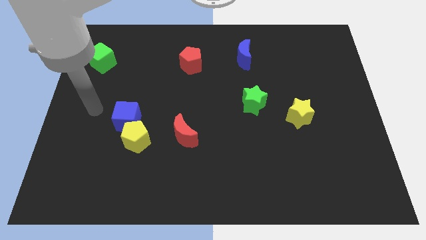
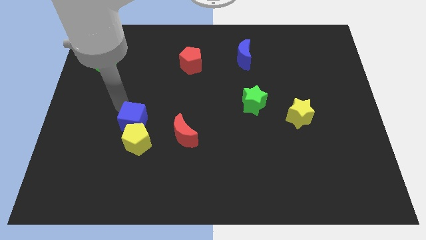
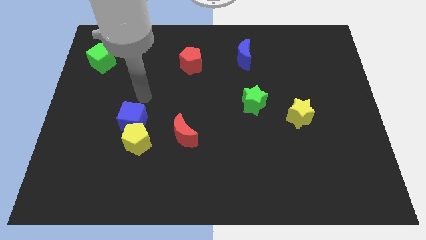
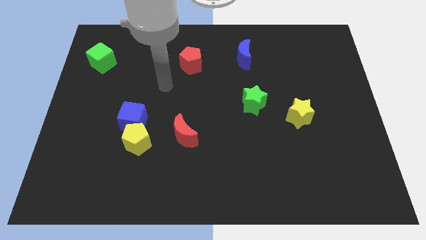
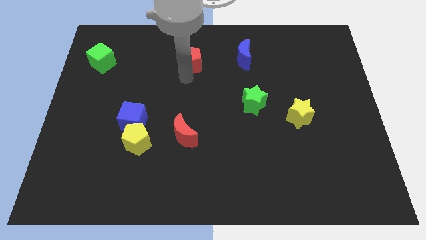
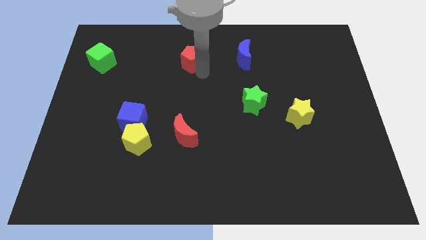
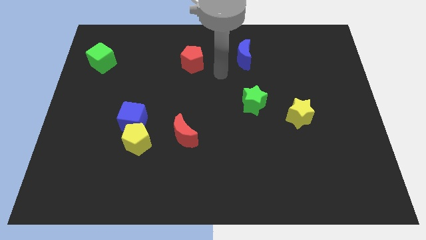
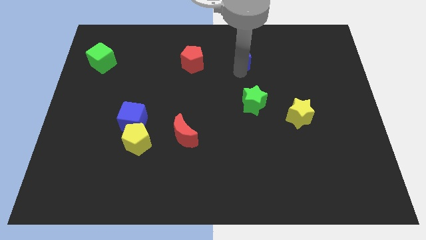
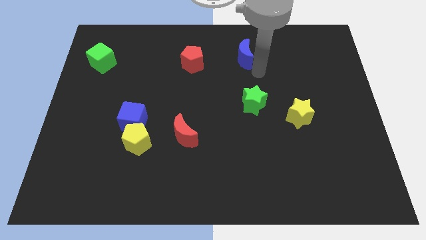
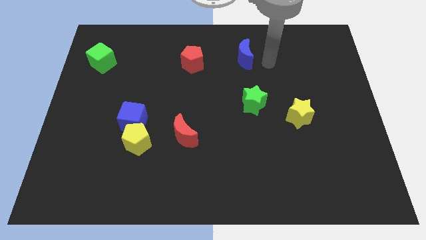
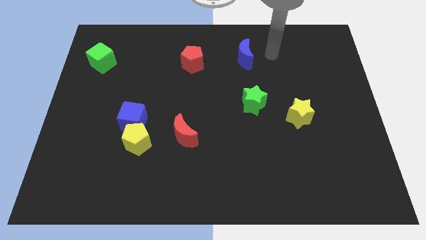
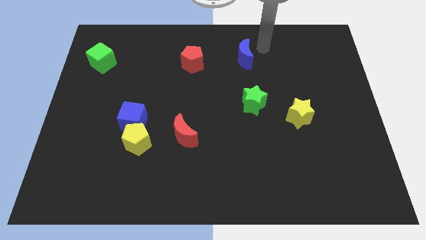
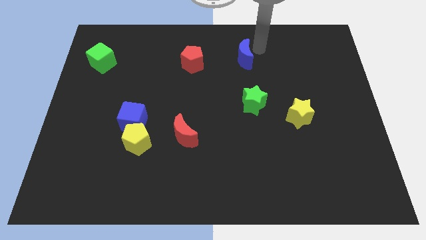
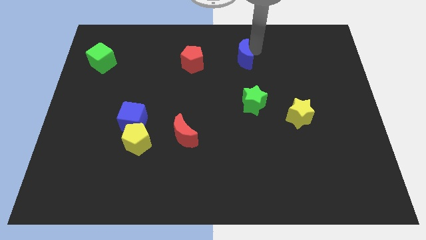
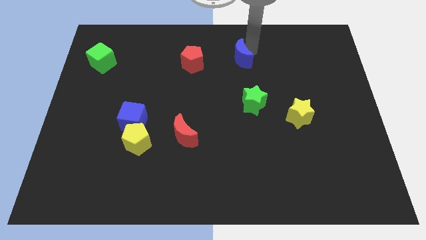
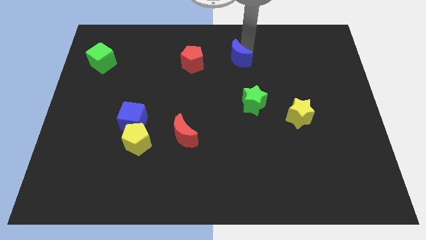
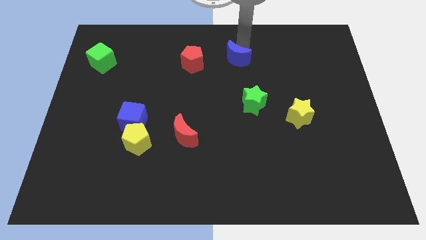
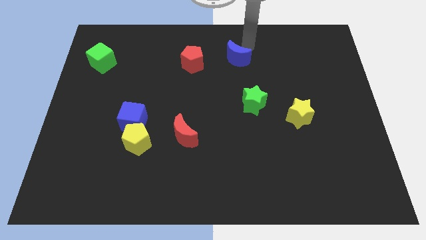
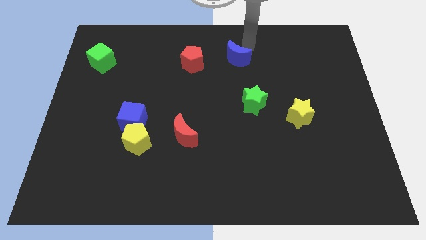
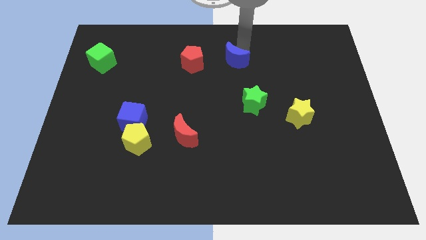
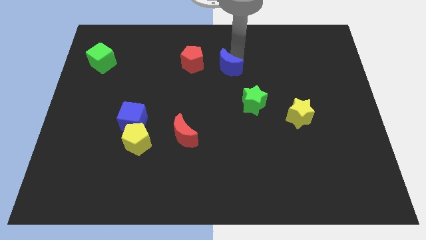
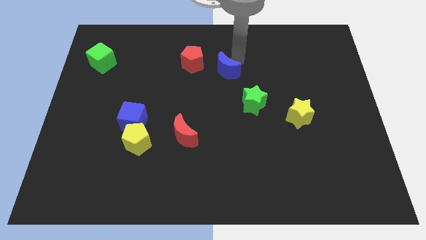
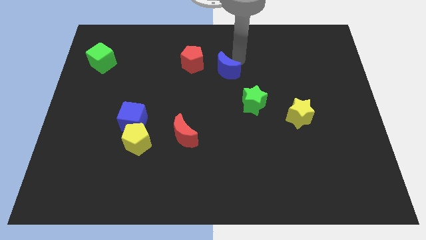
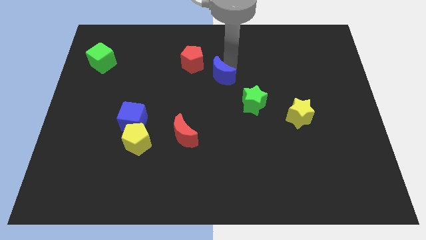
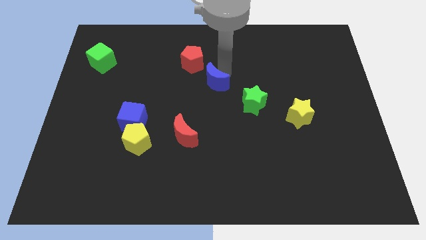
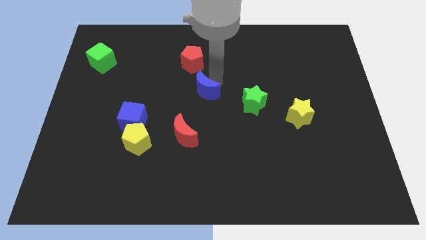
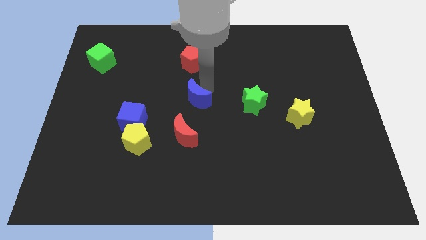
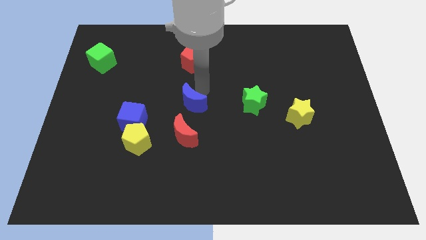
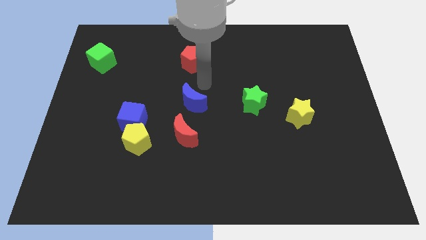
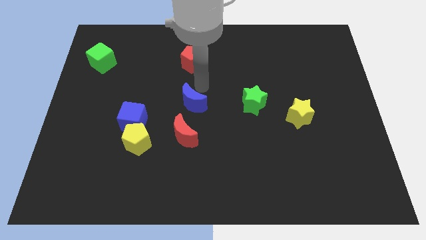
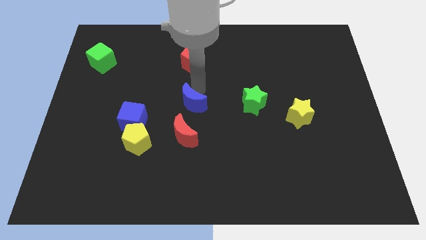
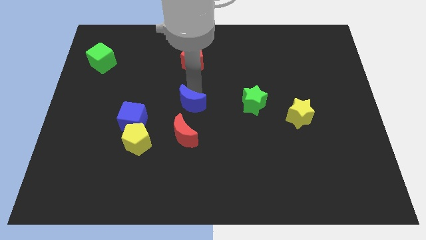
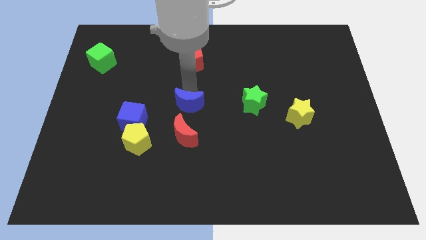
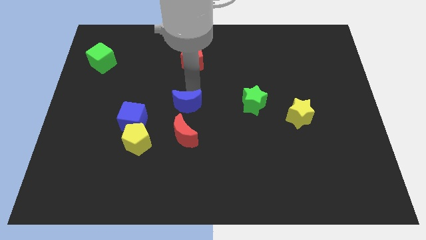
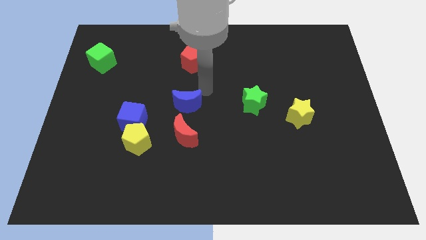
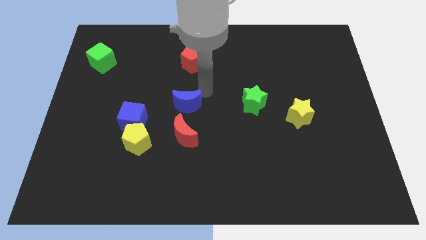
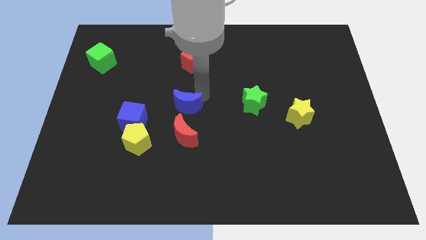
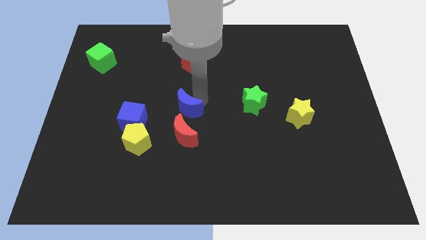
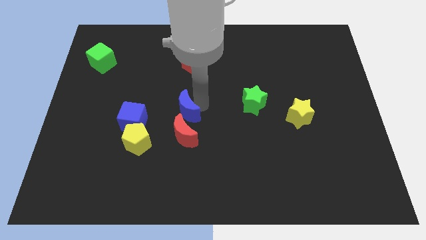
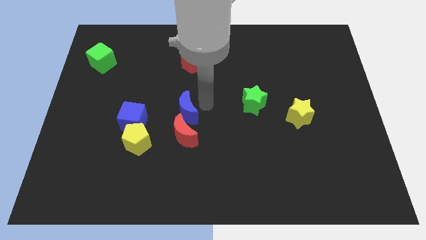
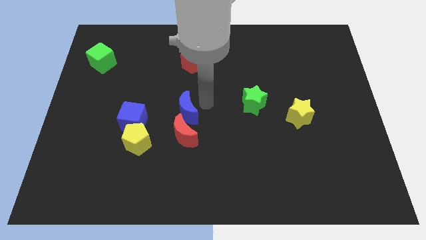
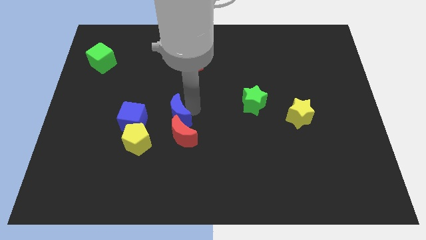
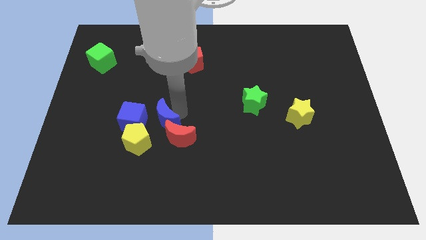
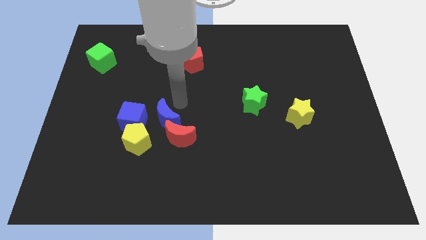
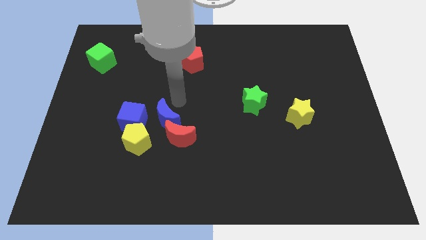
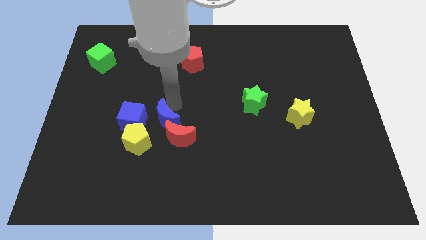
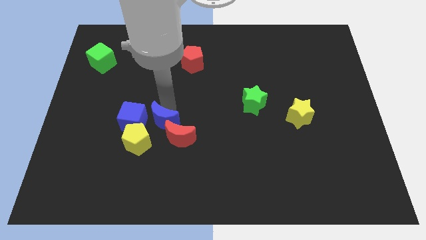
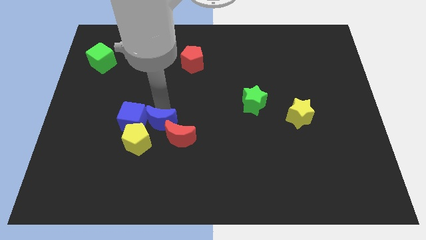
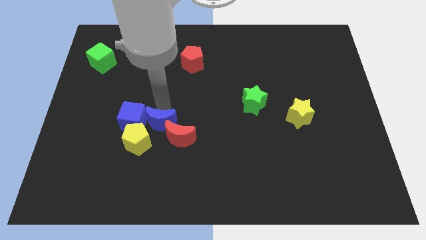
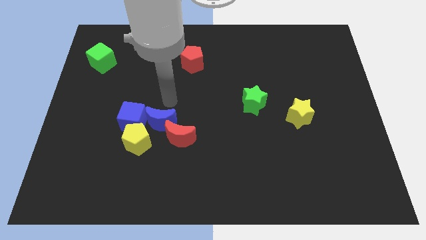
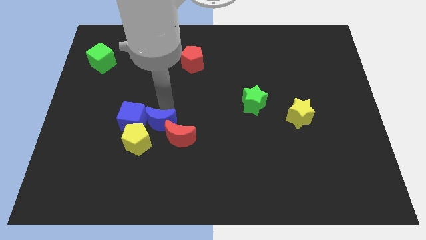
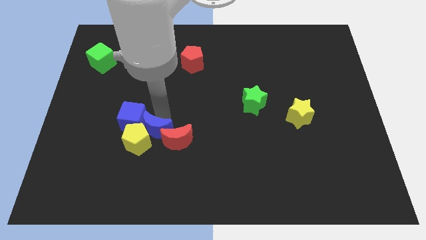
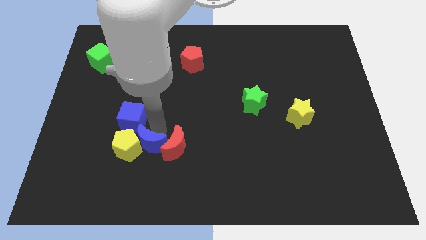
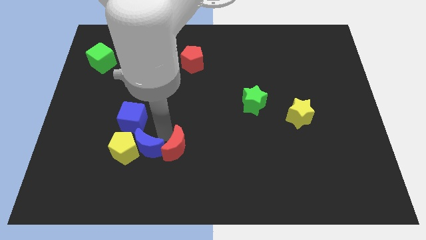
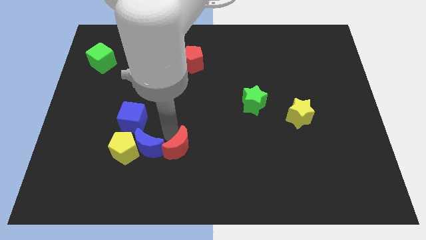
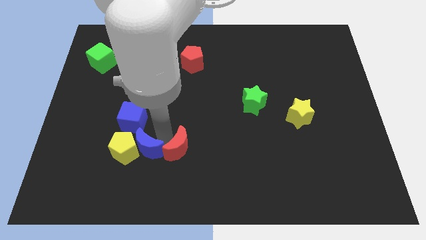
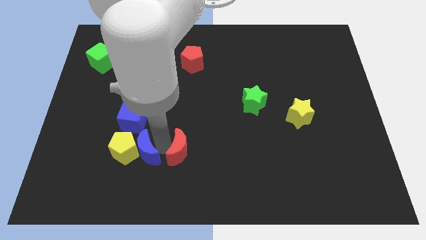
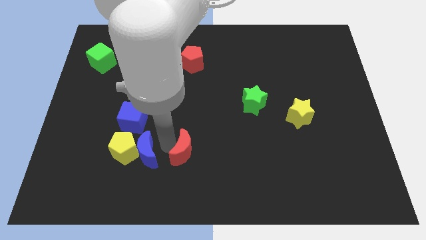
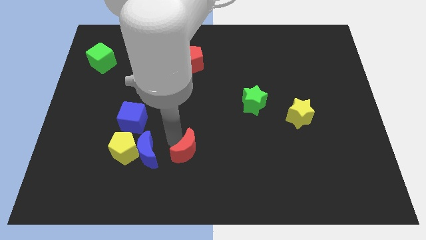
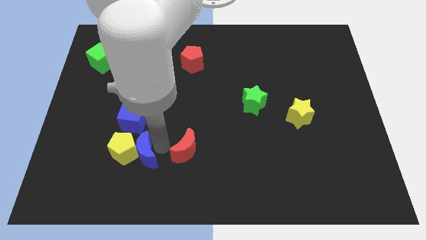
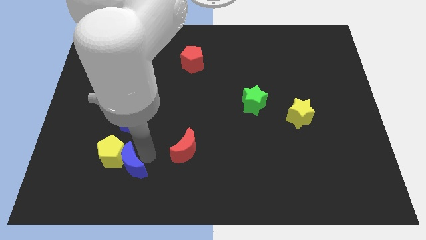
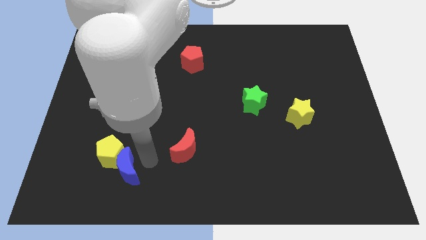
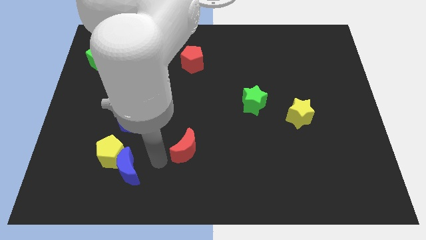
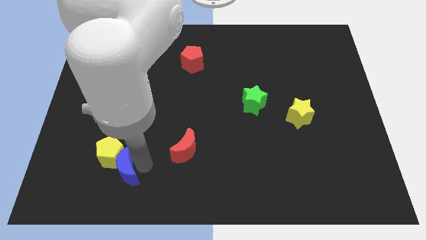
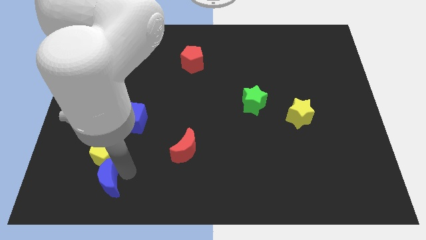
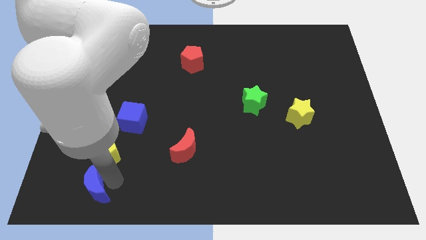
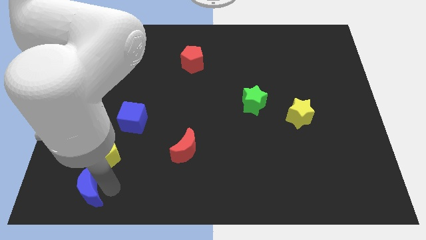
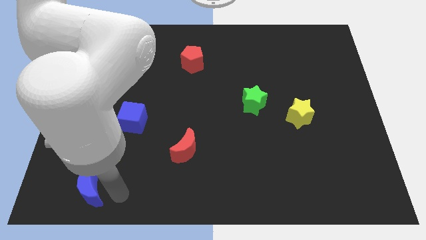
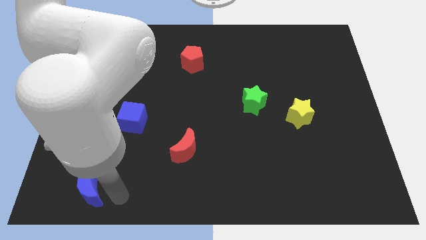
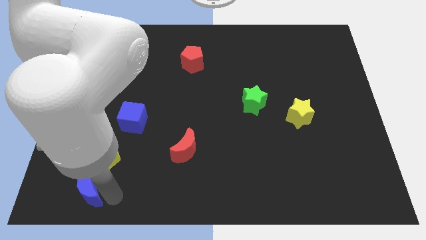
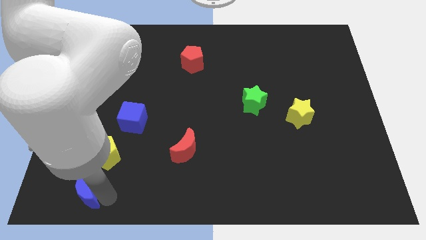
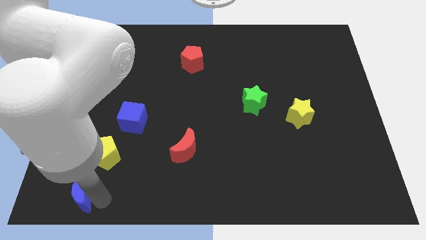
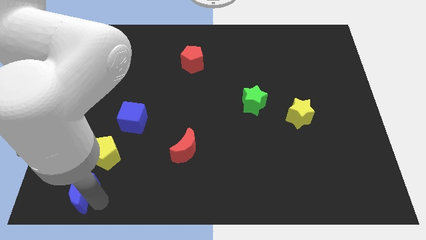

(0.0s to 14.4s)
slide the blue moon to the lower left corner
